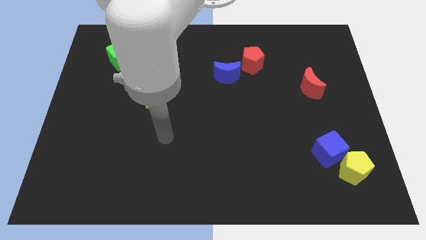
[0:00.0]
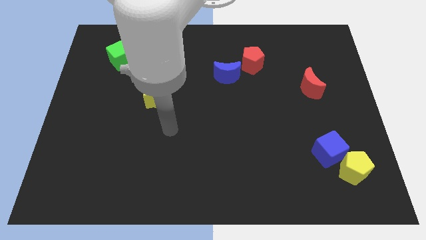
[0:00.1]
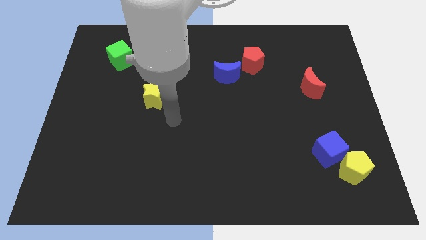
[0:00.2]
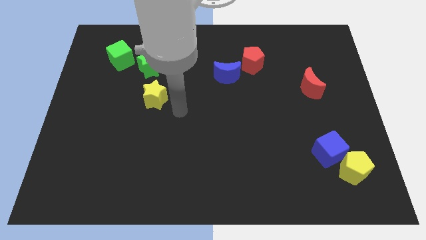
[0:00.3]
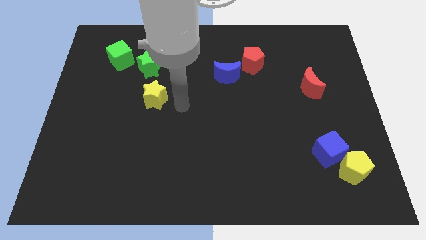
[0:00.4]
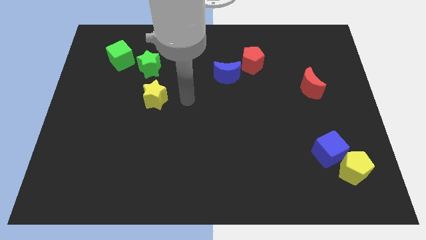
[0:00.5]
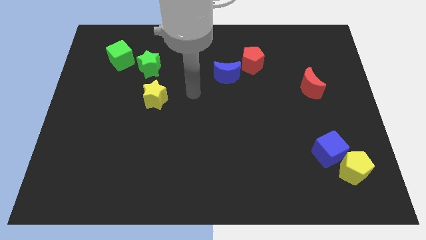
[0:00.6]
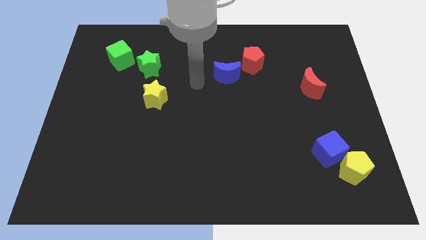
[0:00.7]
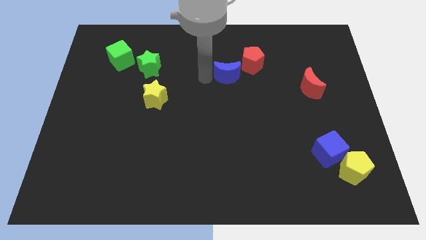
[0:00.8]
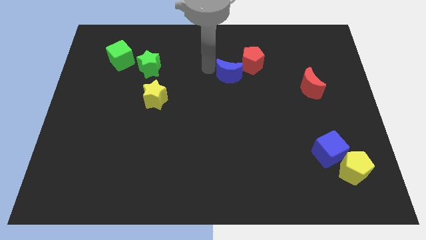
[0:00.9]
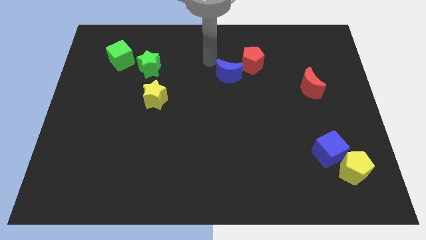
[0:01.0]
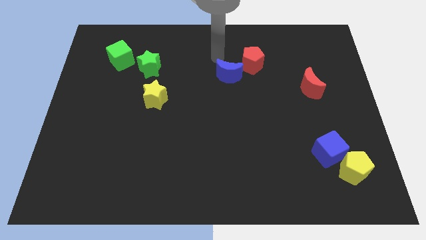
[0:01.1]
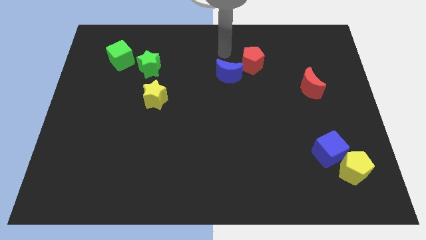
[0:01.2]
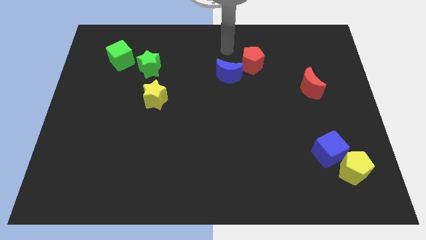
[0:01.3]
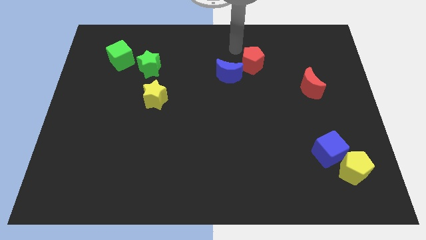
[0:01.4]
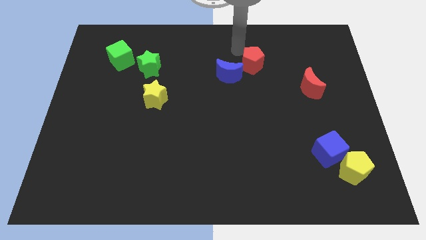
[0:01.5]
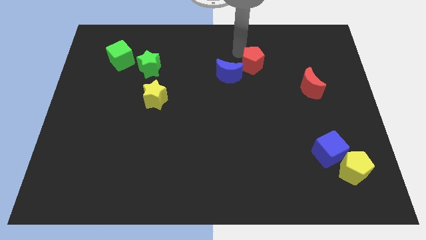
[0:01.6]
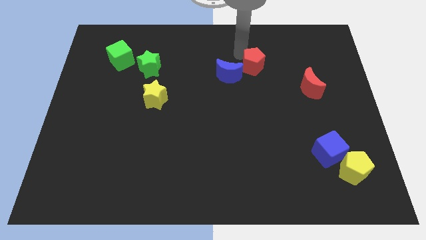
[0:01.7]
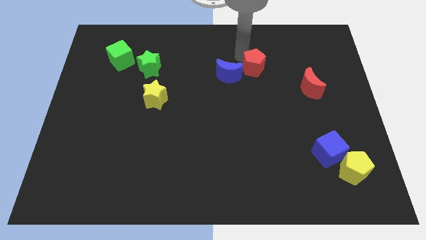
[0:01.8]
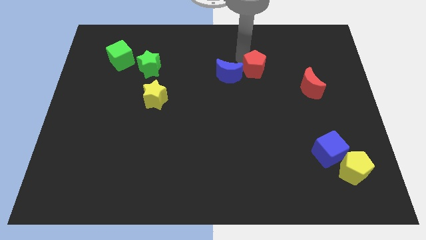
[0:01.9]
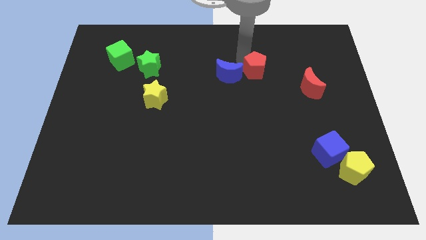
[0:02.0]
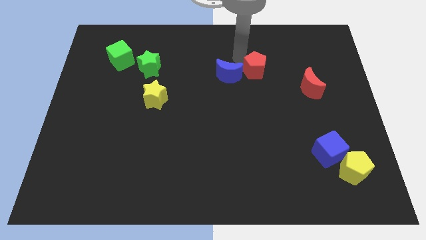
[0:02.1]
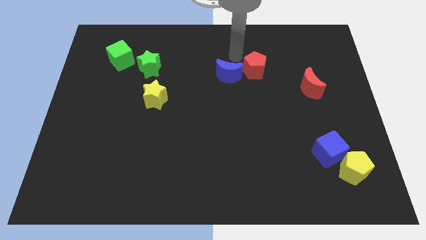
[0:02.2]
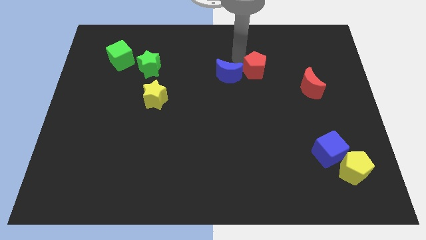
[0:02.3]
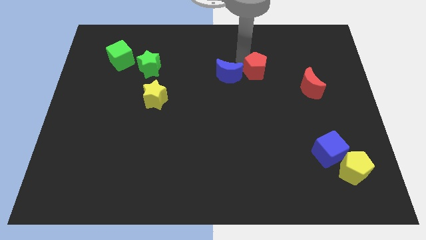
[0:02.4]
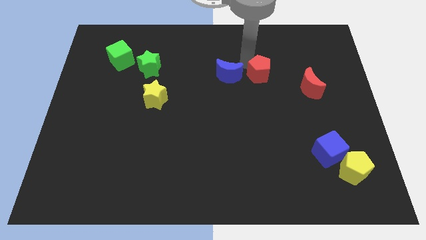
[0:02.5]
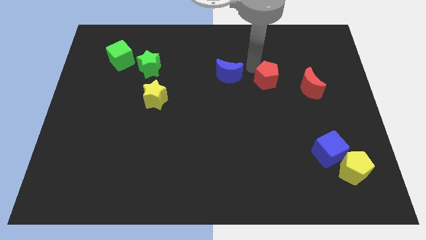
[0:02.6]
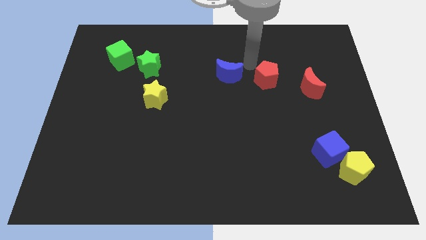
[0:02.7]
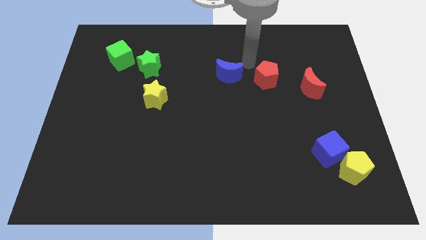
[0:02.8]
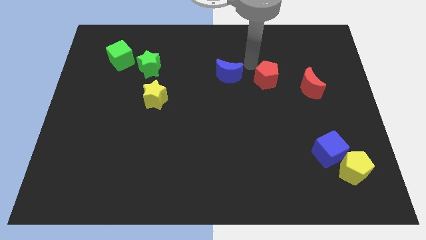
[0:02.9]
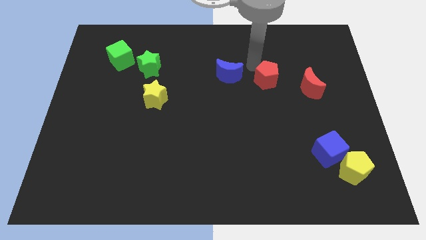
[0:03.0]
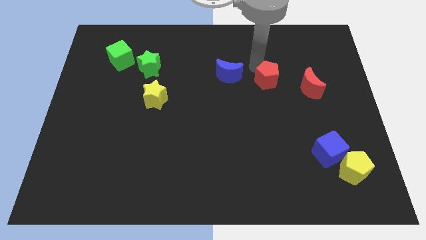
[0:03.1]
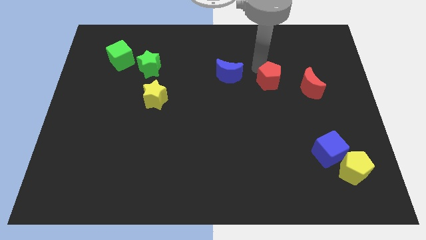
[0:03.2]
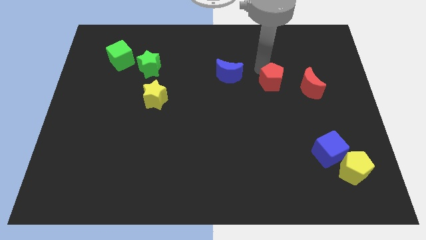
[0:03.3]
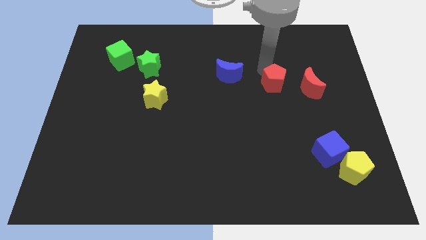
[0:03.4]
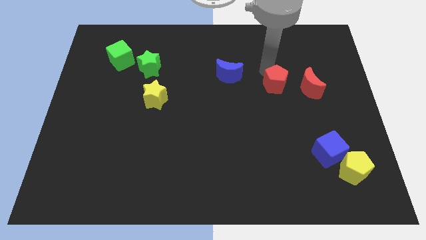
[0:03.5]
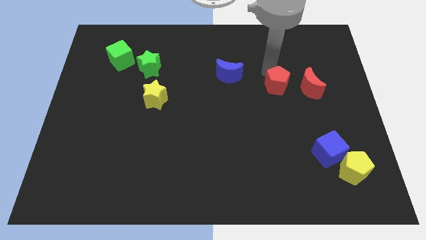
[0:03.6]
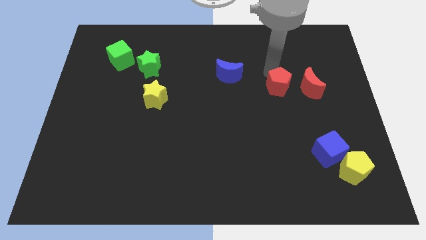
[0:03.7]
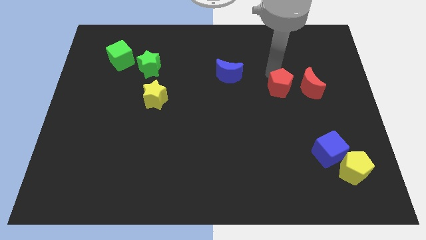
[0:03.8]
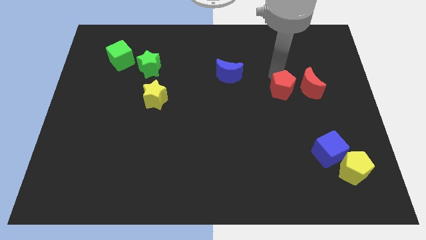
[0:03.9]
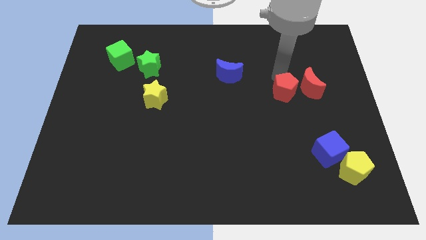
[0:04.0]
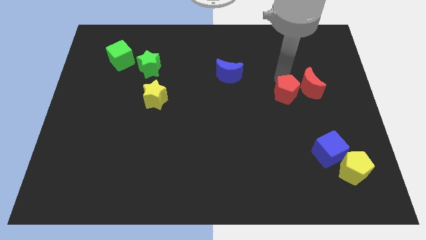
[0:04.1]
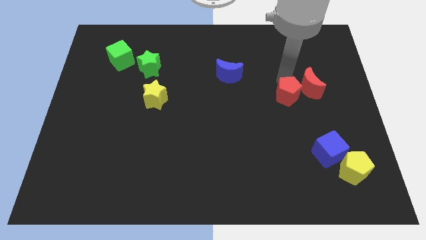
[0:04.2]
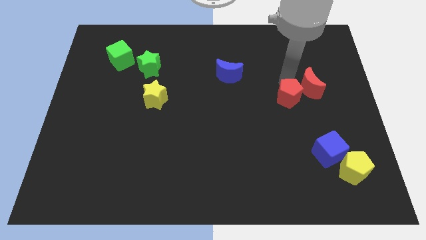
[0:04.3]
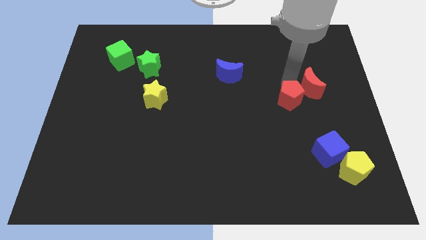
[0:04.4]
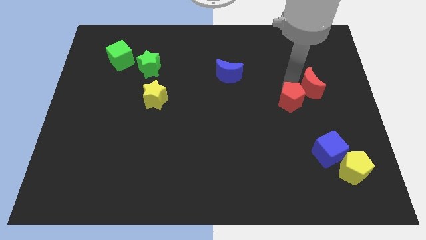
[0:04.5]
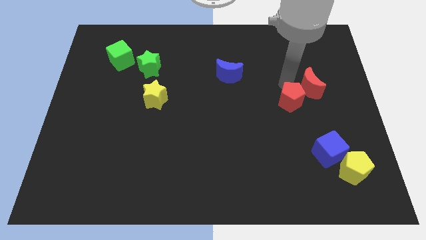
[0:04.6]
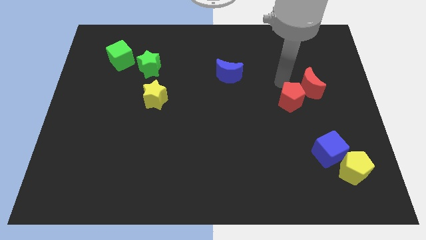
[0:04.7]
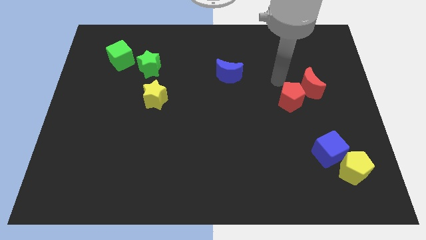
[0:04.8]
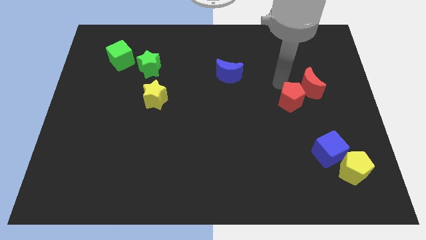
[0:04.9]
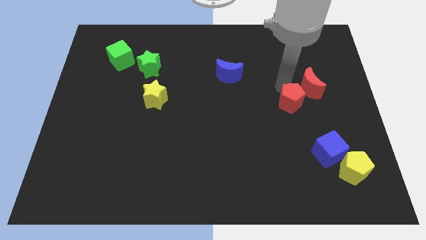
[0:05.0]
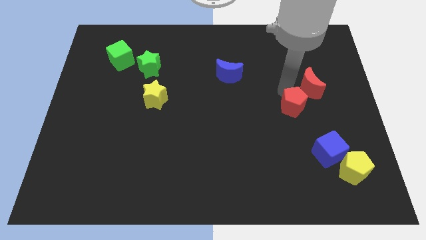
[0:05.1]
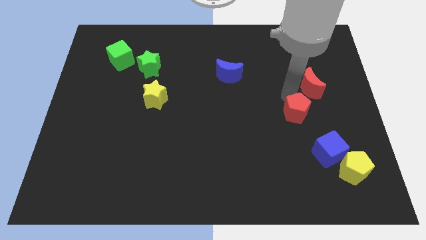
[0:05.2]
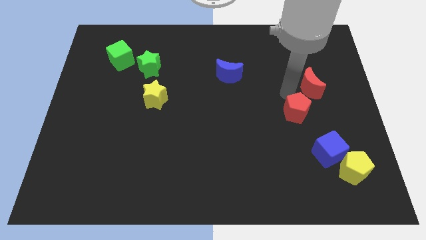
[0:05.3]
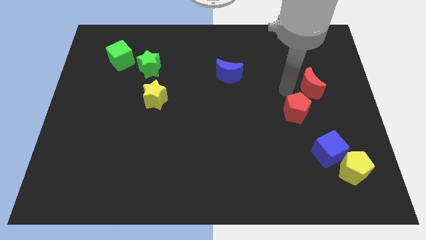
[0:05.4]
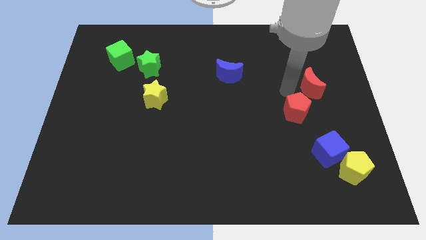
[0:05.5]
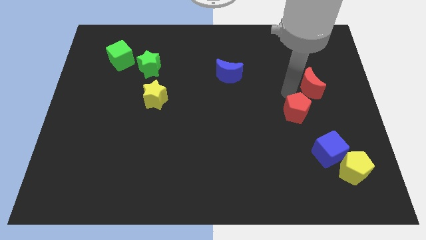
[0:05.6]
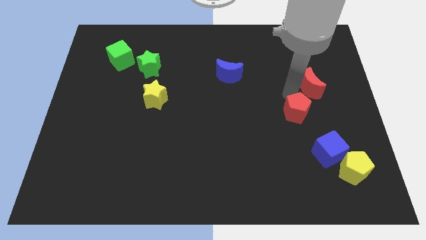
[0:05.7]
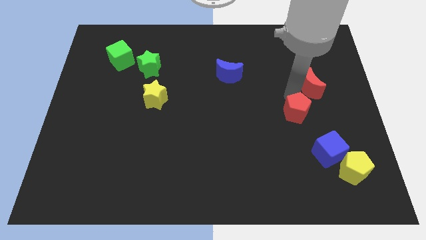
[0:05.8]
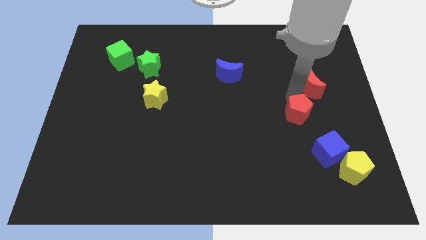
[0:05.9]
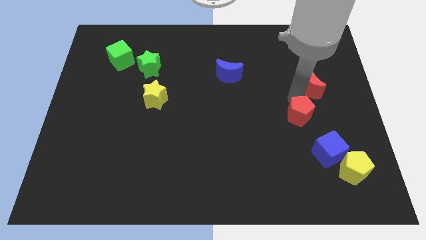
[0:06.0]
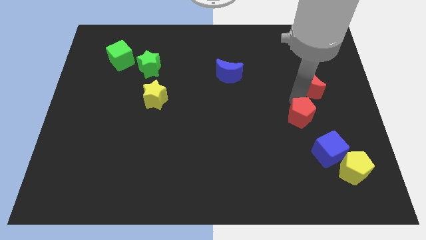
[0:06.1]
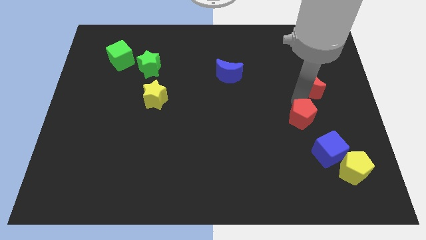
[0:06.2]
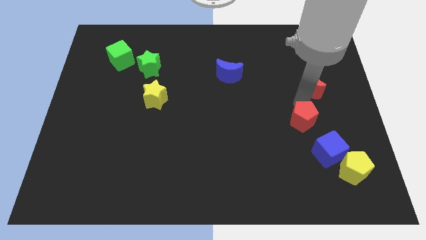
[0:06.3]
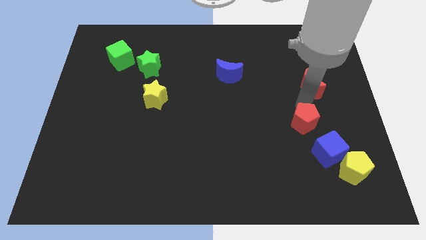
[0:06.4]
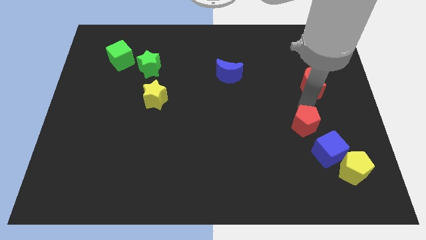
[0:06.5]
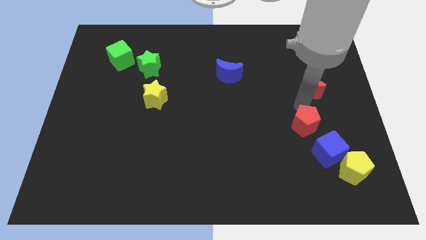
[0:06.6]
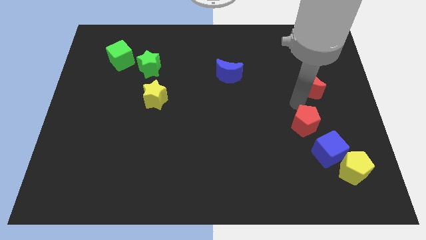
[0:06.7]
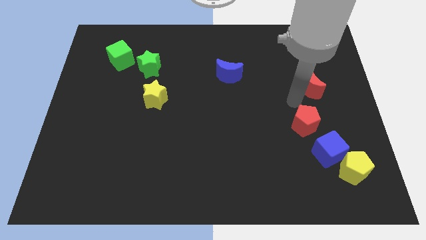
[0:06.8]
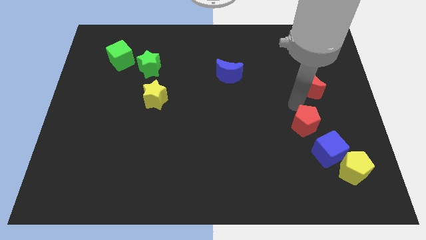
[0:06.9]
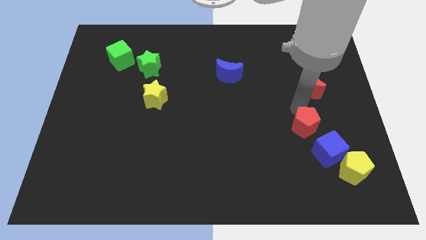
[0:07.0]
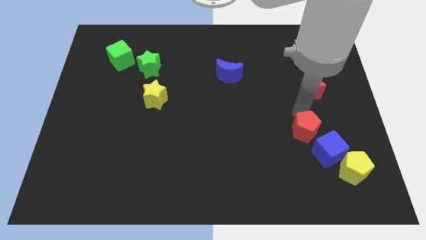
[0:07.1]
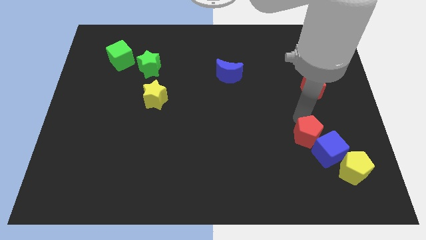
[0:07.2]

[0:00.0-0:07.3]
push the red pentagon next to the blue cube
